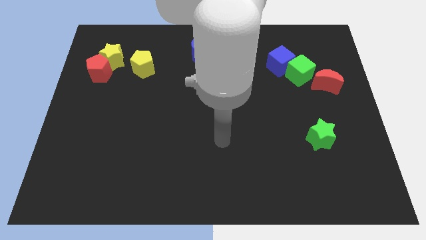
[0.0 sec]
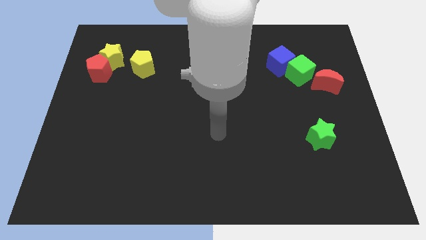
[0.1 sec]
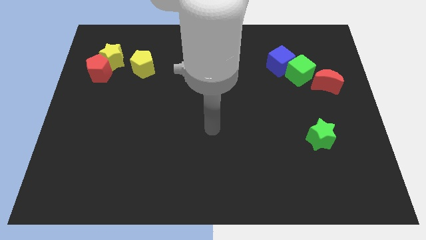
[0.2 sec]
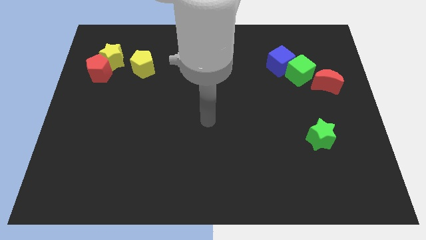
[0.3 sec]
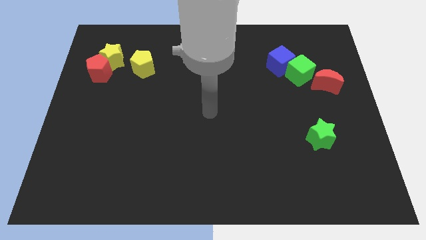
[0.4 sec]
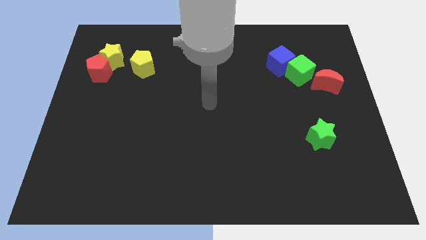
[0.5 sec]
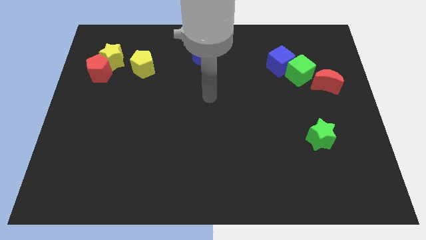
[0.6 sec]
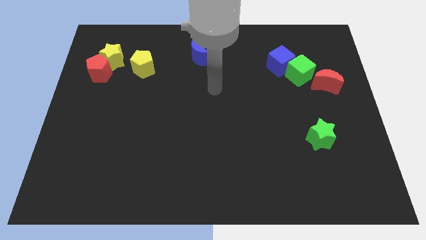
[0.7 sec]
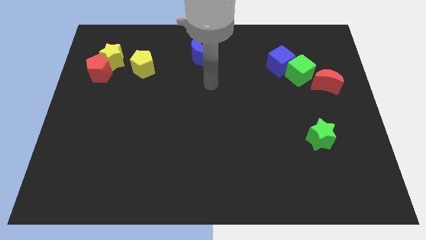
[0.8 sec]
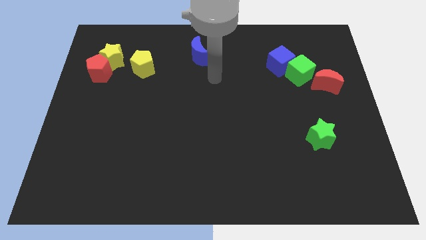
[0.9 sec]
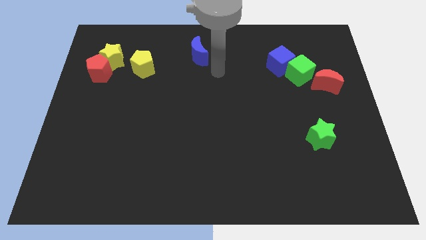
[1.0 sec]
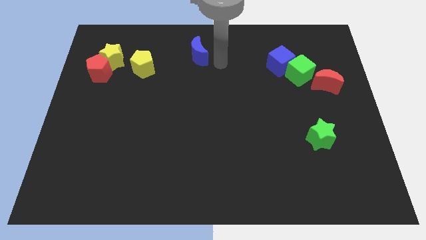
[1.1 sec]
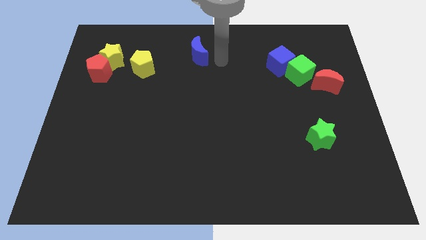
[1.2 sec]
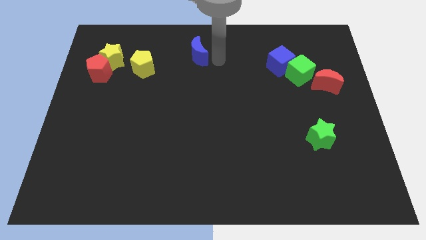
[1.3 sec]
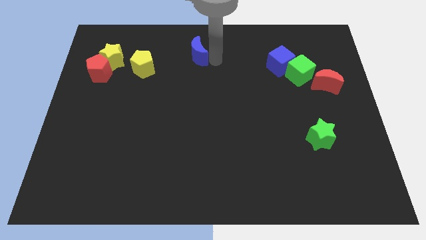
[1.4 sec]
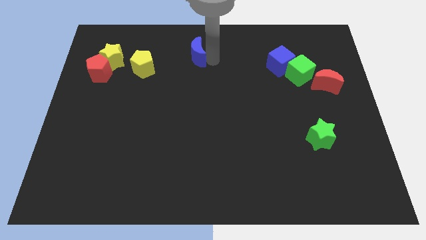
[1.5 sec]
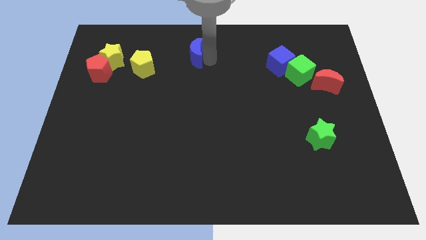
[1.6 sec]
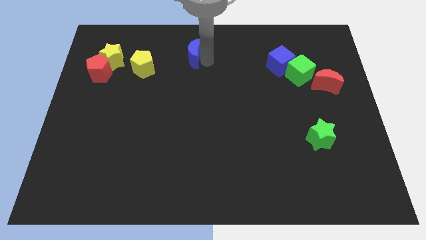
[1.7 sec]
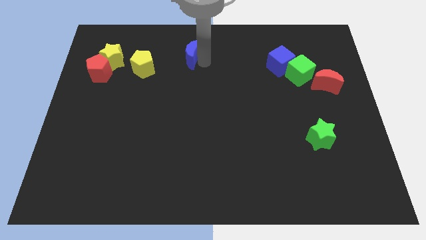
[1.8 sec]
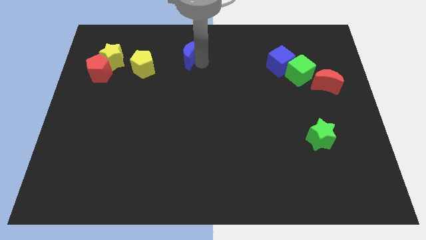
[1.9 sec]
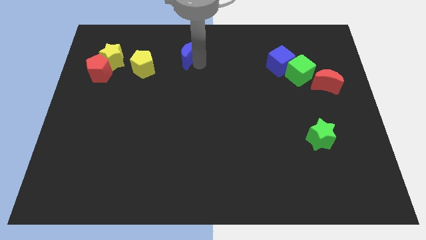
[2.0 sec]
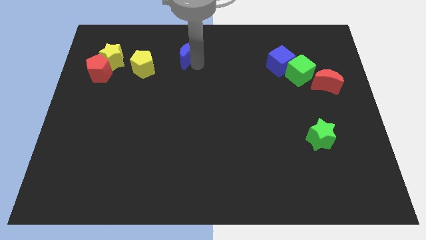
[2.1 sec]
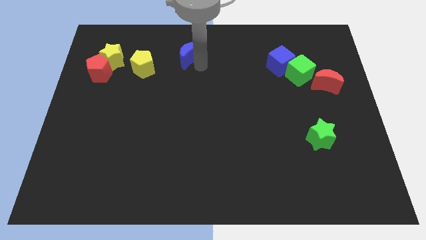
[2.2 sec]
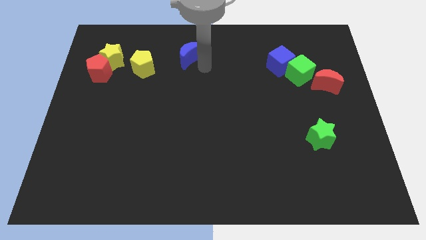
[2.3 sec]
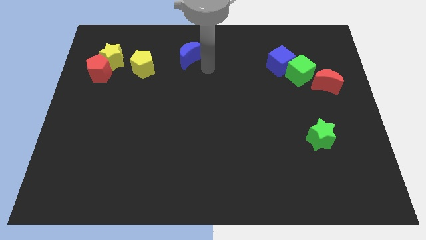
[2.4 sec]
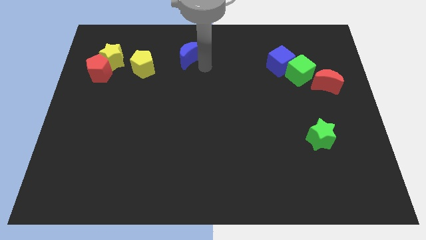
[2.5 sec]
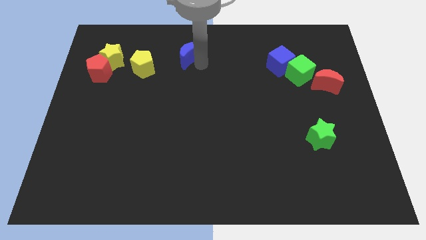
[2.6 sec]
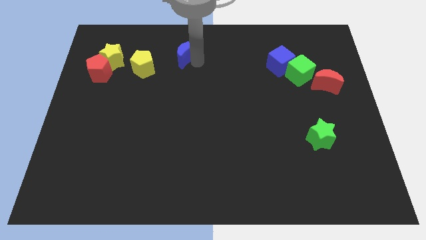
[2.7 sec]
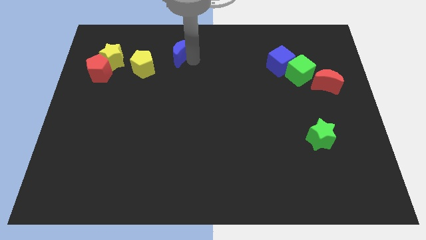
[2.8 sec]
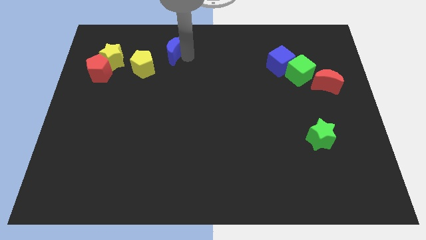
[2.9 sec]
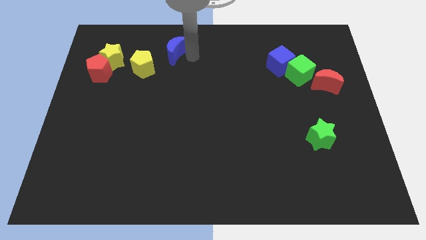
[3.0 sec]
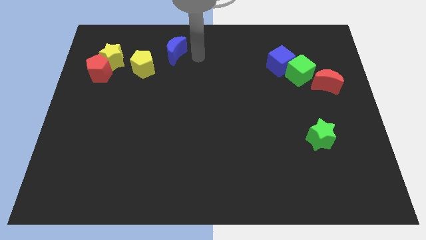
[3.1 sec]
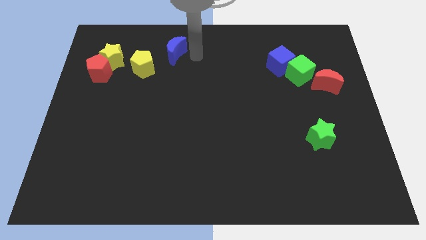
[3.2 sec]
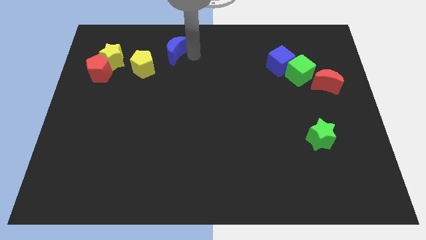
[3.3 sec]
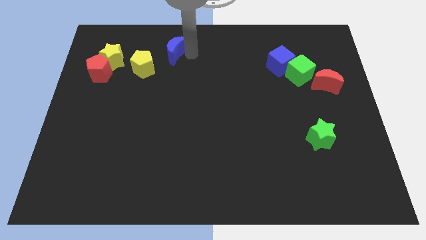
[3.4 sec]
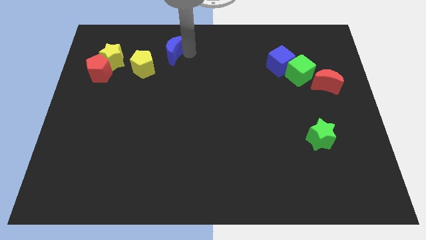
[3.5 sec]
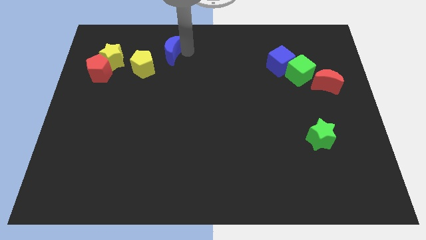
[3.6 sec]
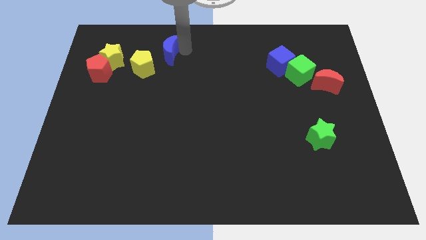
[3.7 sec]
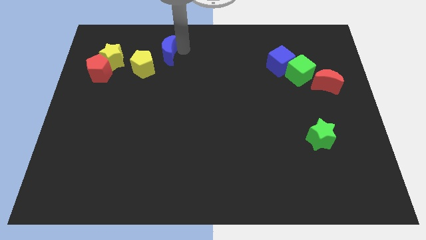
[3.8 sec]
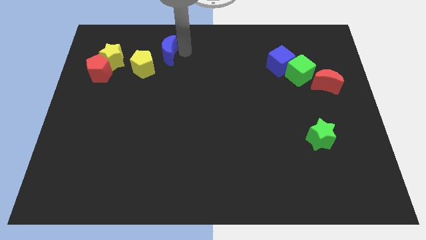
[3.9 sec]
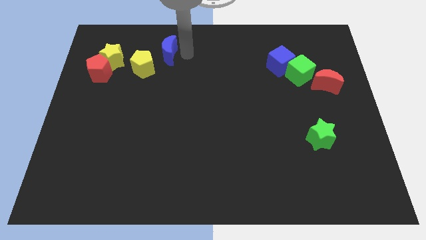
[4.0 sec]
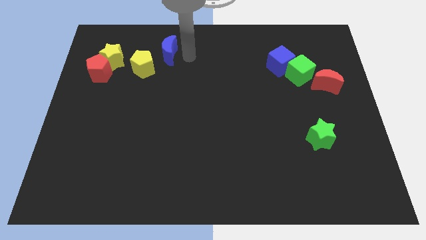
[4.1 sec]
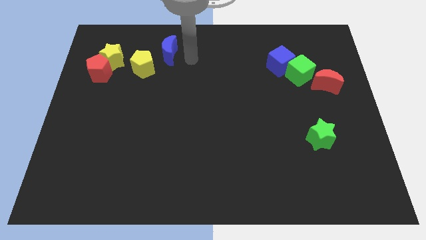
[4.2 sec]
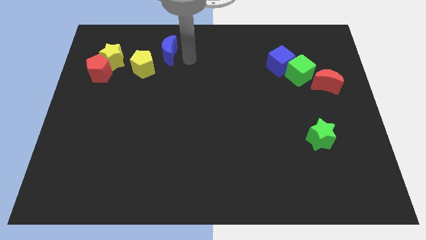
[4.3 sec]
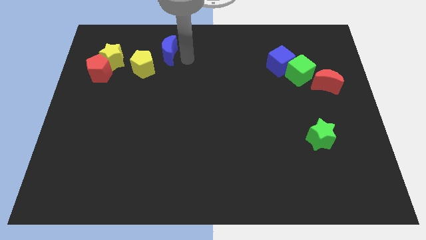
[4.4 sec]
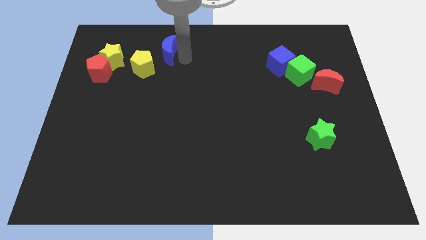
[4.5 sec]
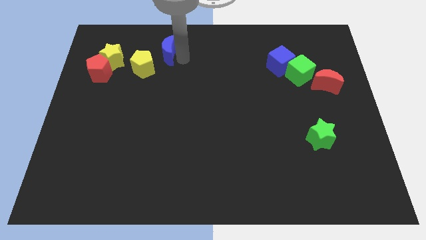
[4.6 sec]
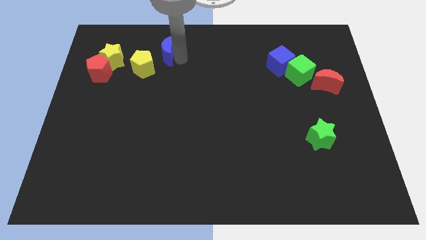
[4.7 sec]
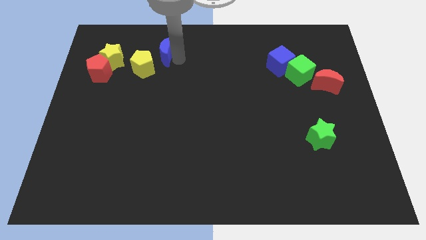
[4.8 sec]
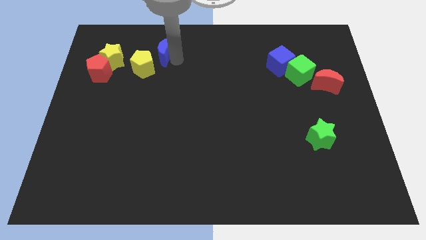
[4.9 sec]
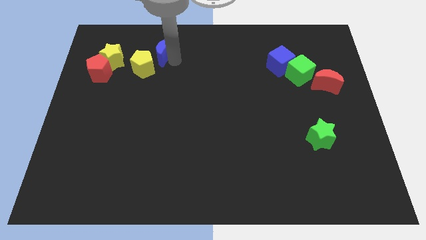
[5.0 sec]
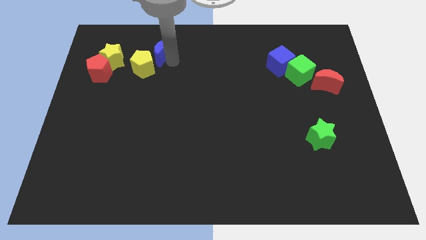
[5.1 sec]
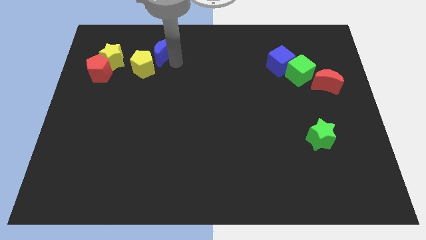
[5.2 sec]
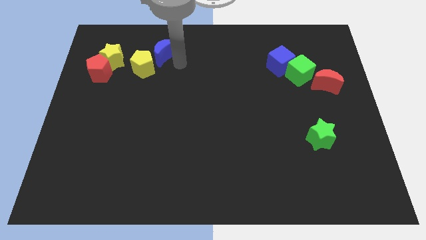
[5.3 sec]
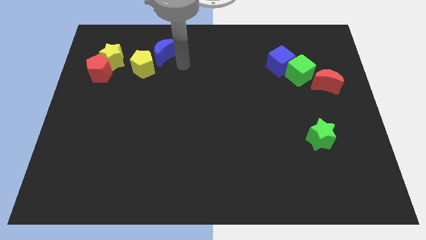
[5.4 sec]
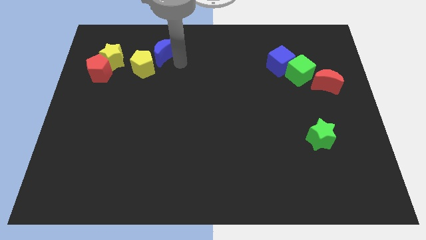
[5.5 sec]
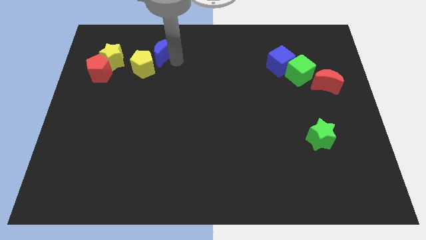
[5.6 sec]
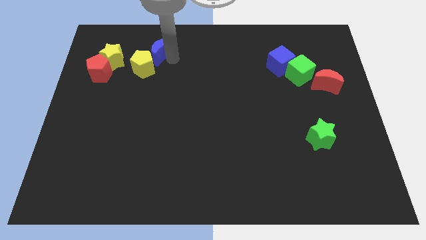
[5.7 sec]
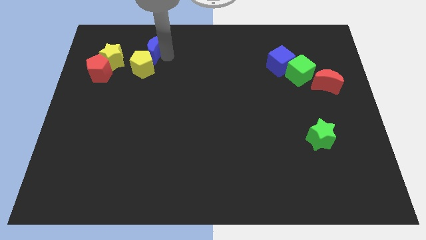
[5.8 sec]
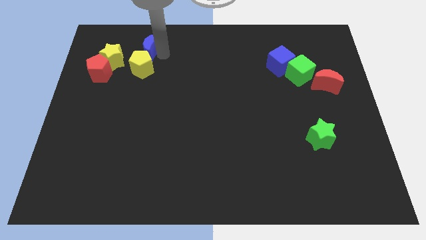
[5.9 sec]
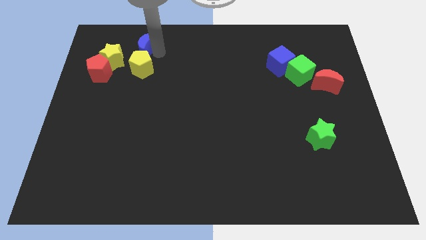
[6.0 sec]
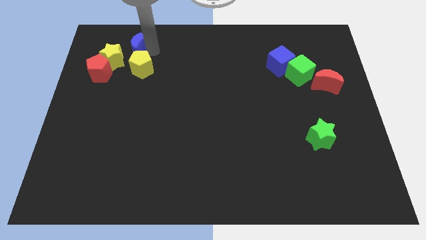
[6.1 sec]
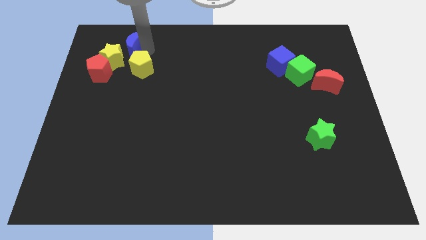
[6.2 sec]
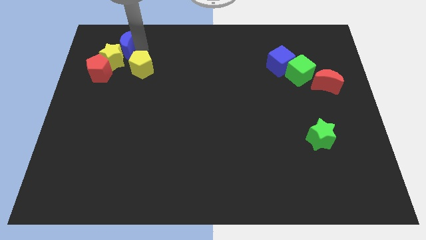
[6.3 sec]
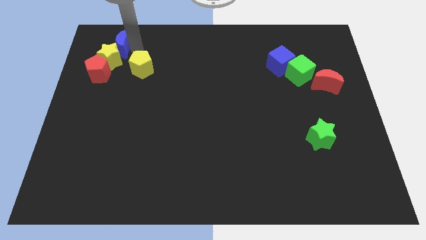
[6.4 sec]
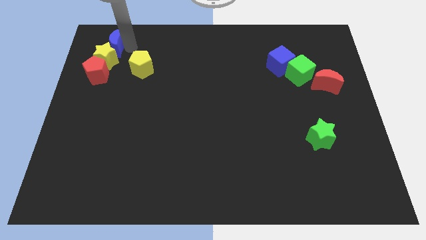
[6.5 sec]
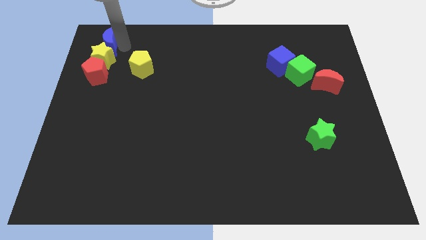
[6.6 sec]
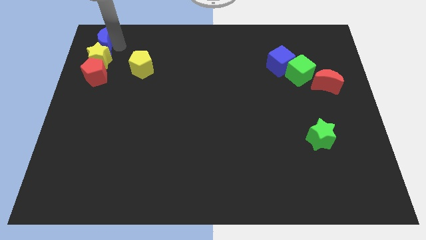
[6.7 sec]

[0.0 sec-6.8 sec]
slide the blue moon to the top left corner

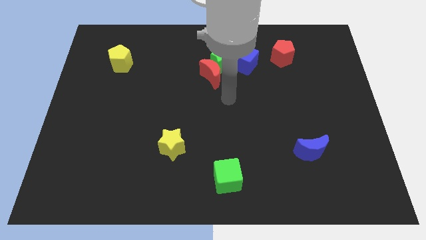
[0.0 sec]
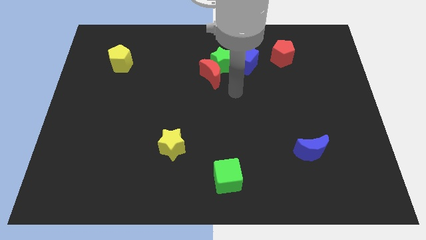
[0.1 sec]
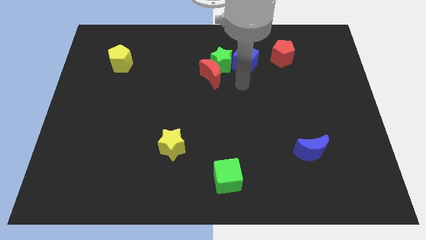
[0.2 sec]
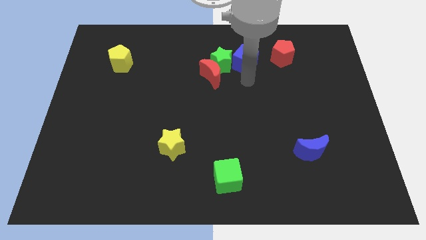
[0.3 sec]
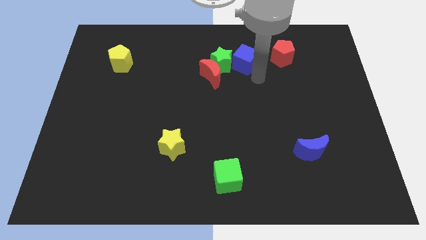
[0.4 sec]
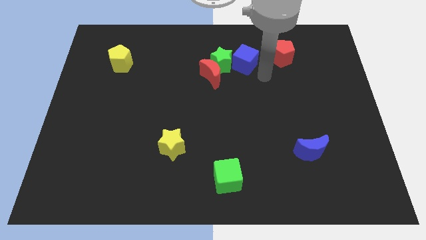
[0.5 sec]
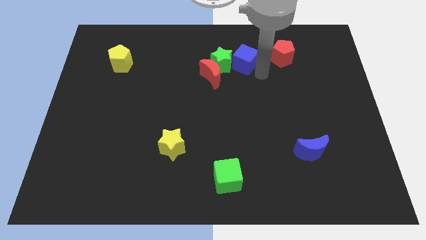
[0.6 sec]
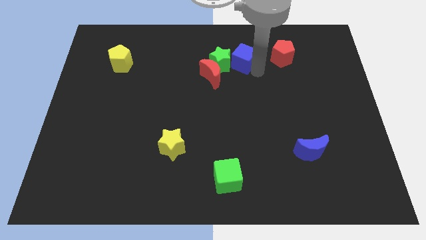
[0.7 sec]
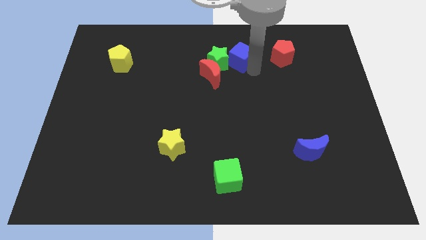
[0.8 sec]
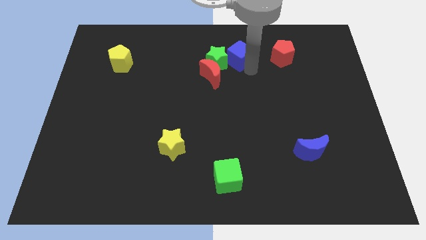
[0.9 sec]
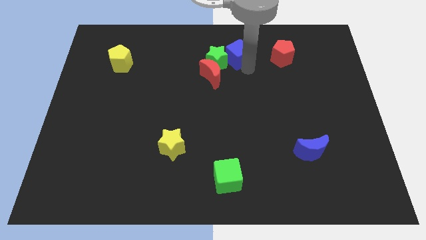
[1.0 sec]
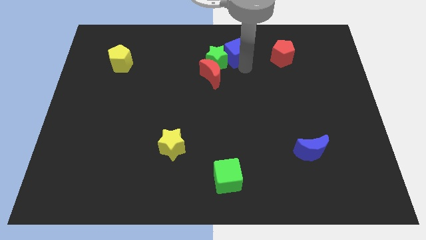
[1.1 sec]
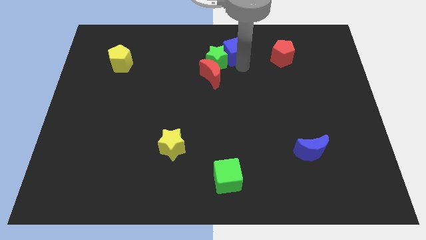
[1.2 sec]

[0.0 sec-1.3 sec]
put the blue cube to the top
